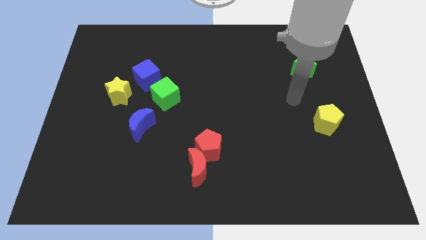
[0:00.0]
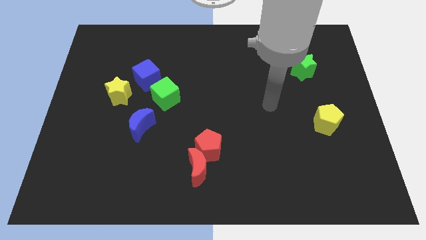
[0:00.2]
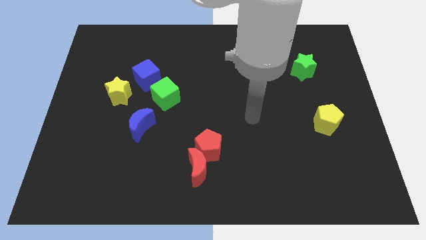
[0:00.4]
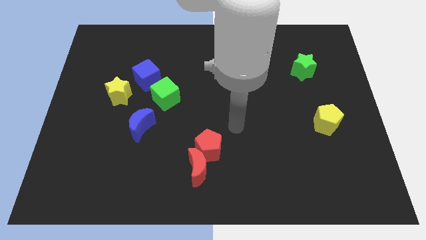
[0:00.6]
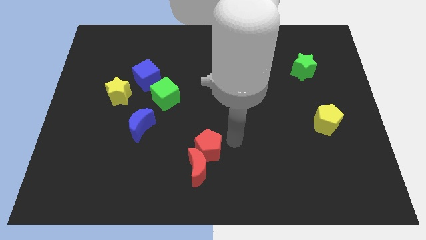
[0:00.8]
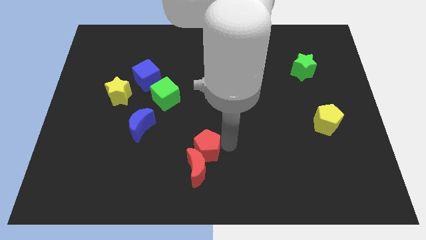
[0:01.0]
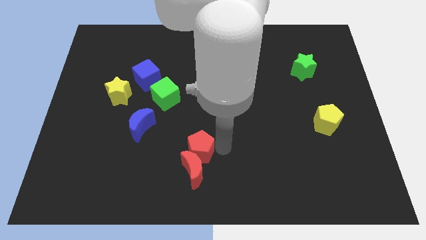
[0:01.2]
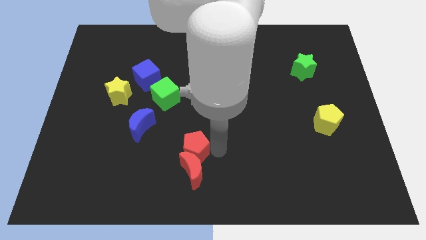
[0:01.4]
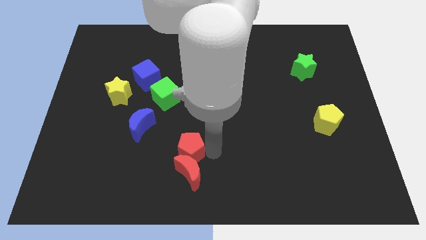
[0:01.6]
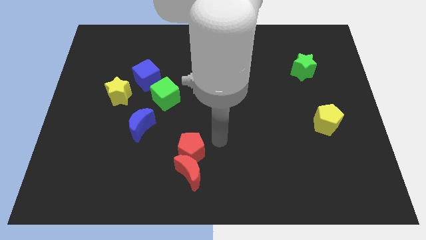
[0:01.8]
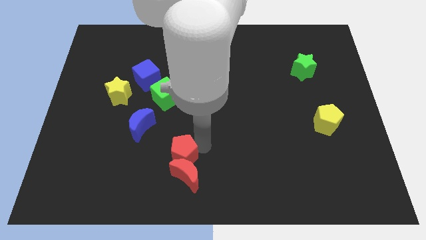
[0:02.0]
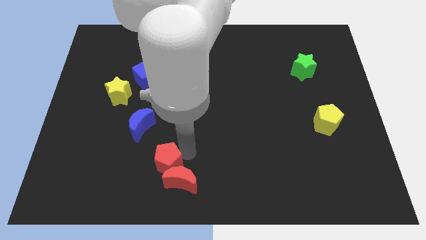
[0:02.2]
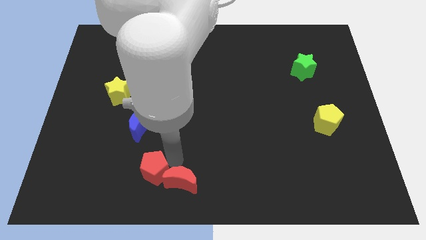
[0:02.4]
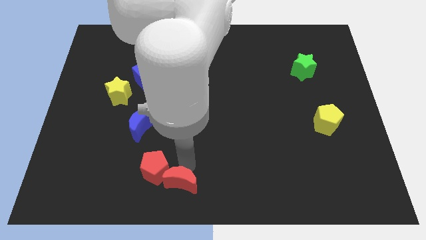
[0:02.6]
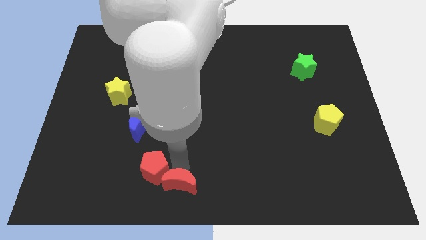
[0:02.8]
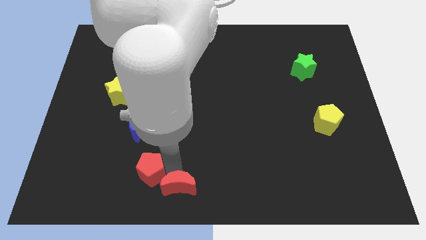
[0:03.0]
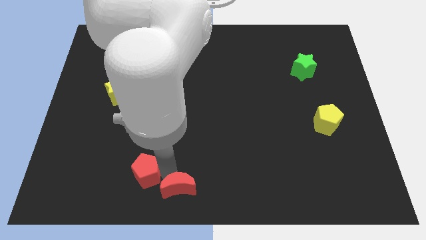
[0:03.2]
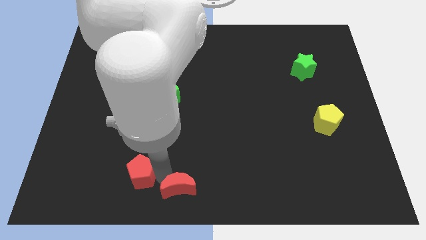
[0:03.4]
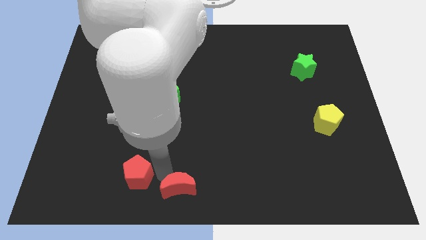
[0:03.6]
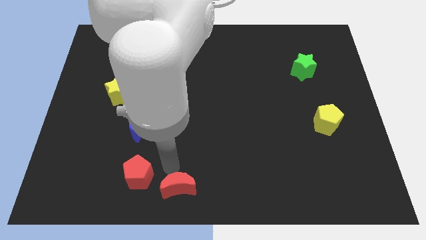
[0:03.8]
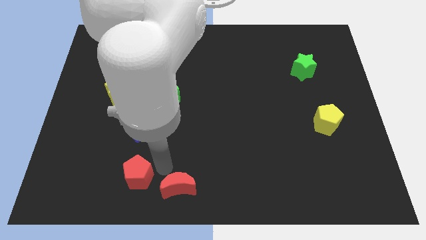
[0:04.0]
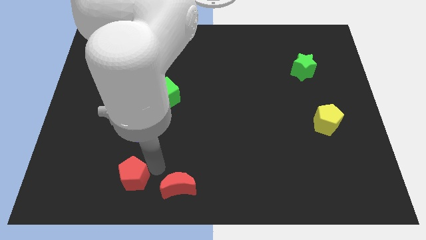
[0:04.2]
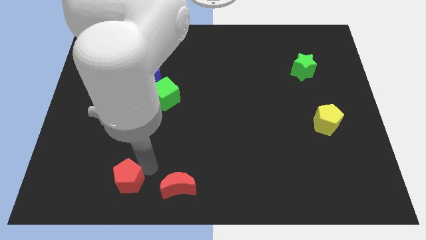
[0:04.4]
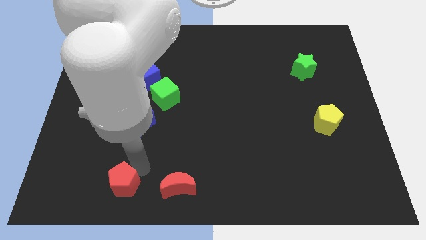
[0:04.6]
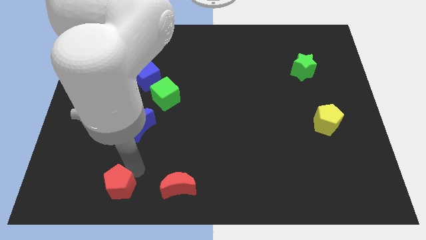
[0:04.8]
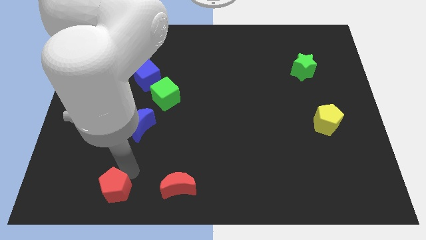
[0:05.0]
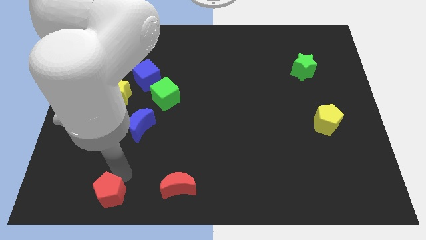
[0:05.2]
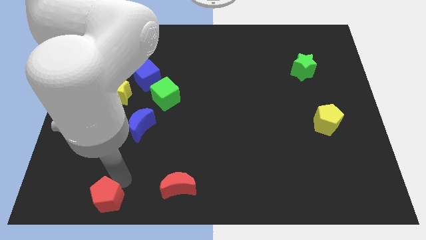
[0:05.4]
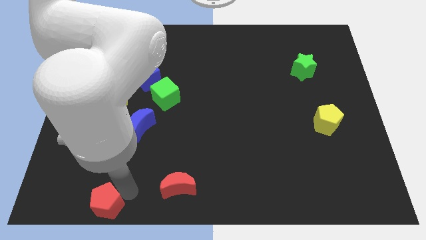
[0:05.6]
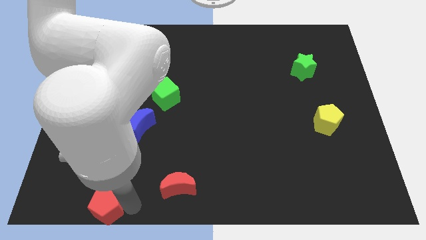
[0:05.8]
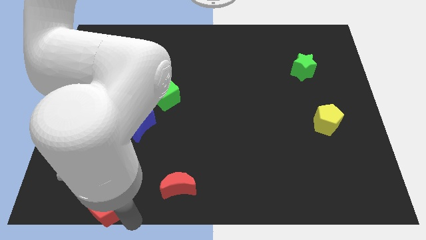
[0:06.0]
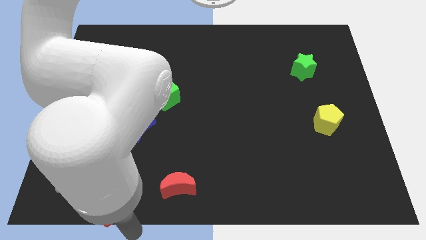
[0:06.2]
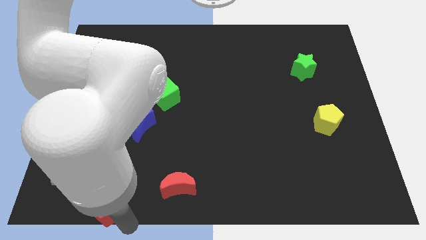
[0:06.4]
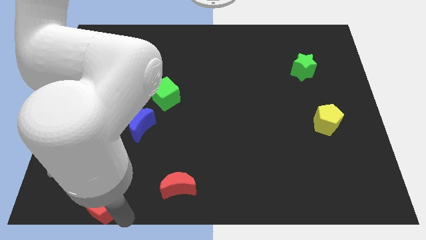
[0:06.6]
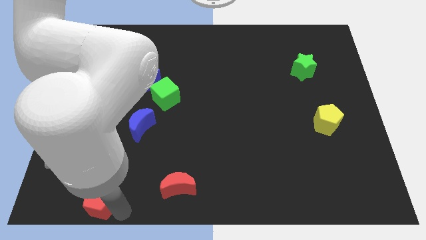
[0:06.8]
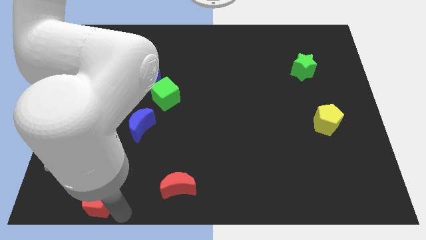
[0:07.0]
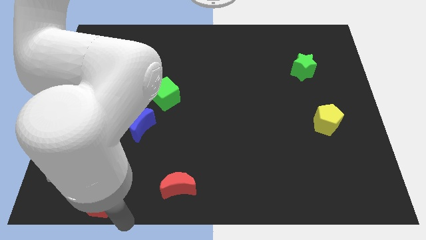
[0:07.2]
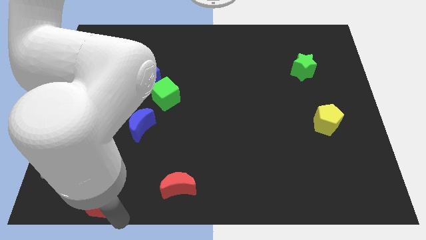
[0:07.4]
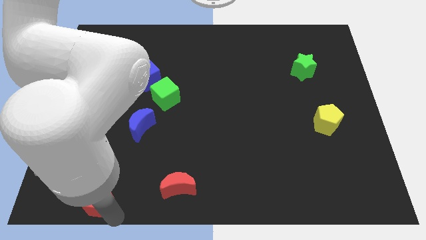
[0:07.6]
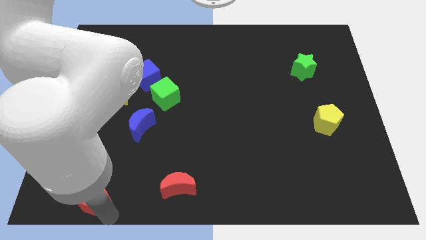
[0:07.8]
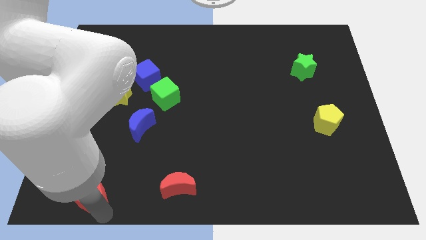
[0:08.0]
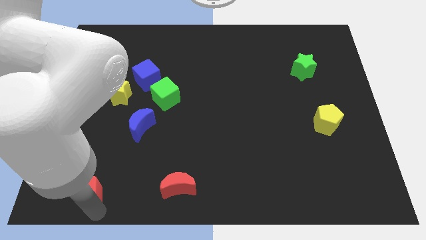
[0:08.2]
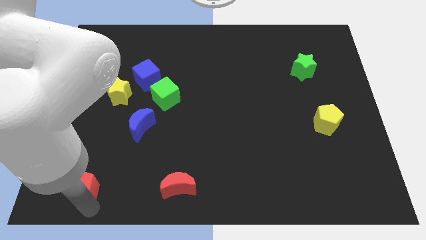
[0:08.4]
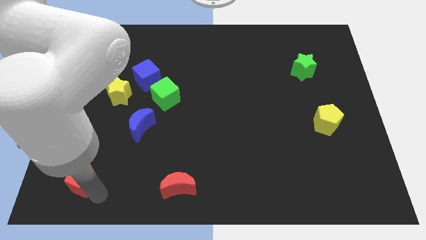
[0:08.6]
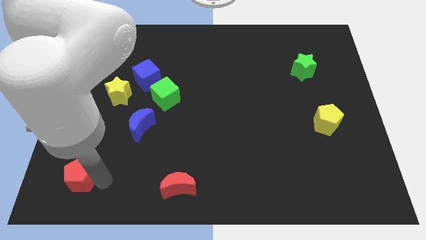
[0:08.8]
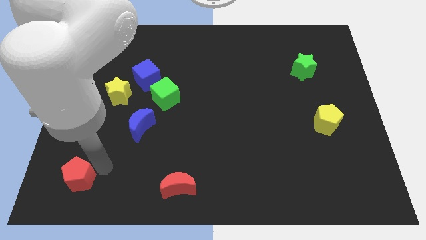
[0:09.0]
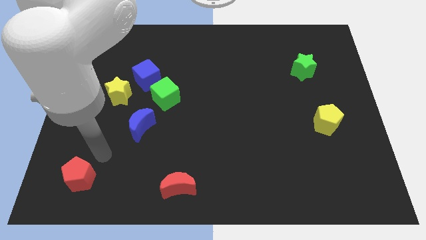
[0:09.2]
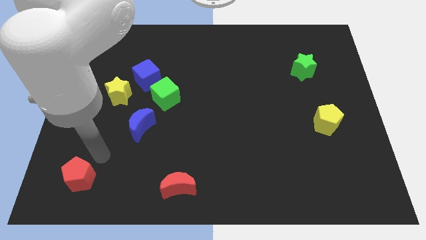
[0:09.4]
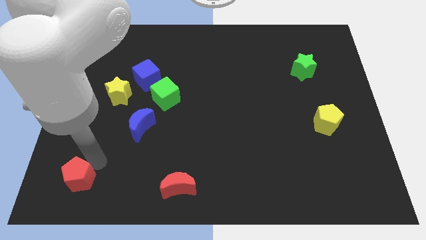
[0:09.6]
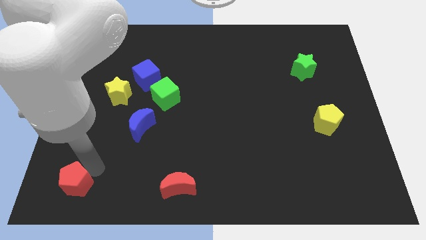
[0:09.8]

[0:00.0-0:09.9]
slide the red pentagon to the bottom left

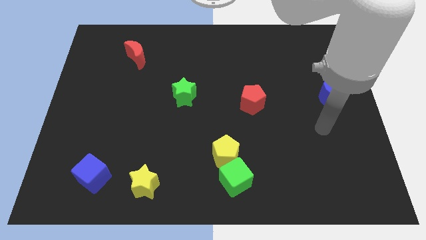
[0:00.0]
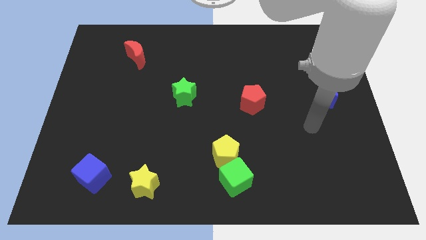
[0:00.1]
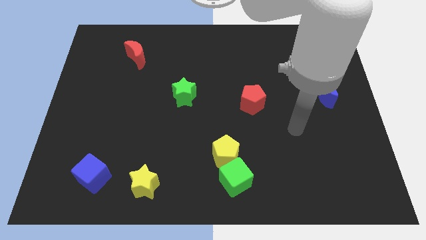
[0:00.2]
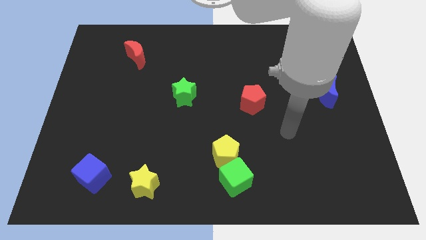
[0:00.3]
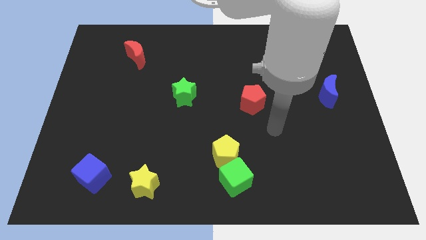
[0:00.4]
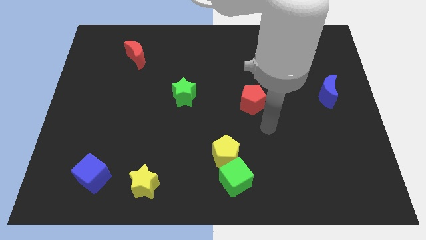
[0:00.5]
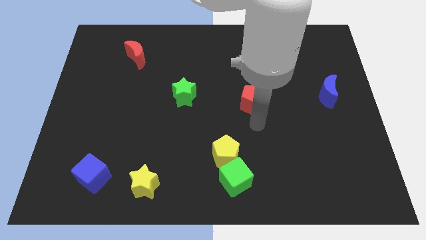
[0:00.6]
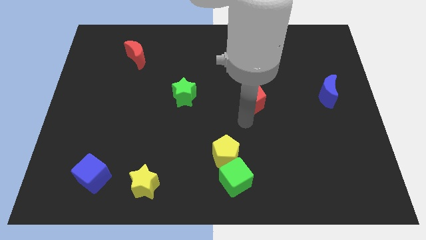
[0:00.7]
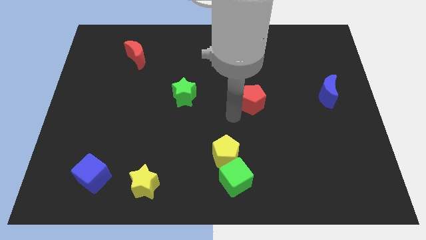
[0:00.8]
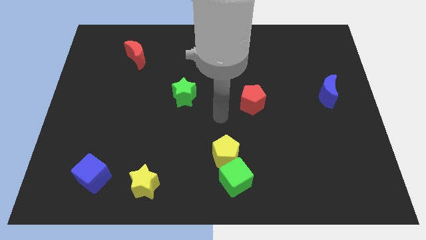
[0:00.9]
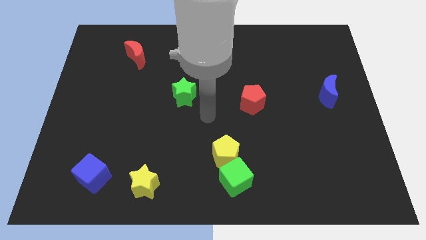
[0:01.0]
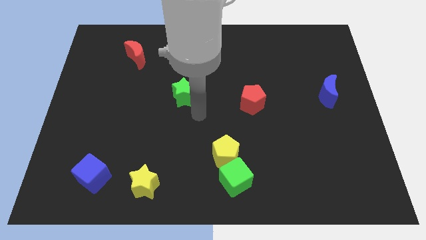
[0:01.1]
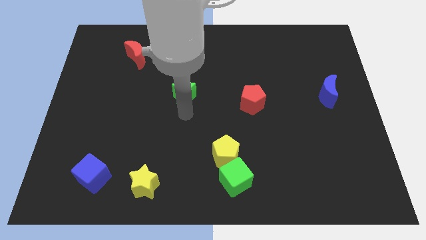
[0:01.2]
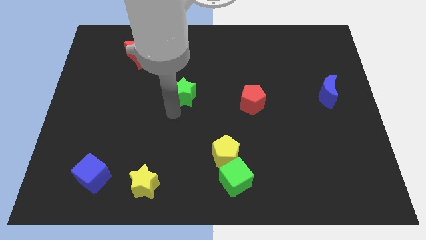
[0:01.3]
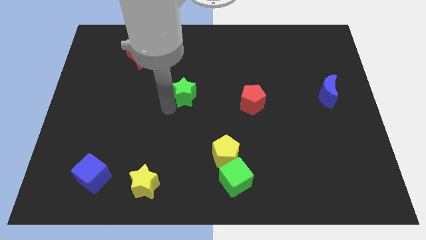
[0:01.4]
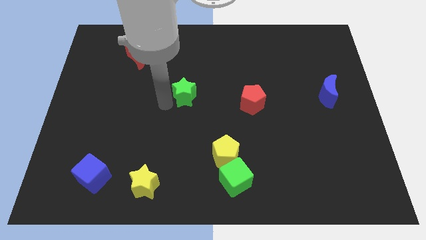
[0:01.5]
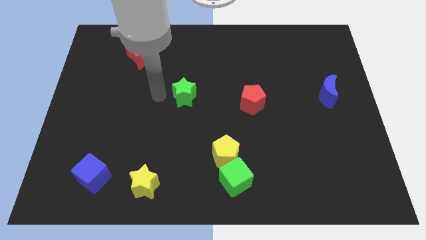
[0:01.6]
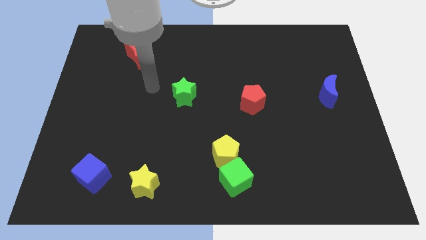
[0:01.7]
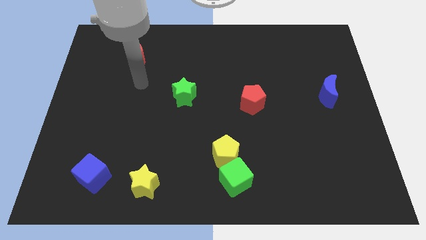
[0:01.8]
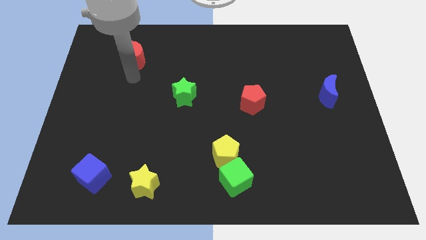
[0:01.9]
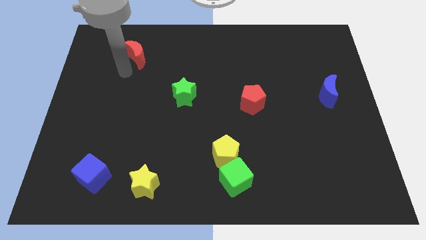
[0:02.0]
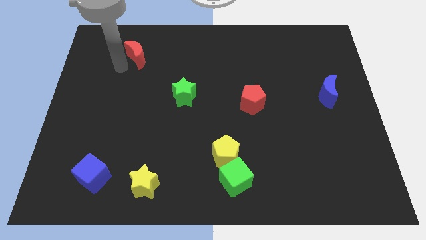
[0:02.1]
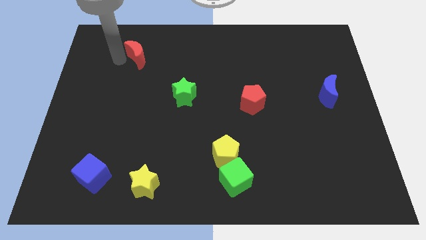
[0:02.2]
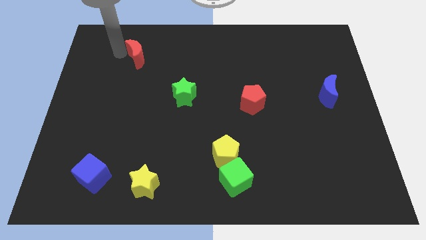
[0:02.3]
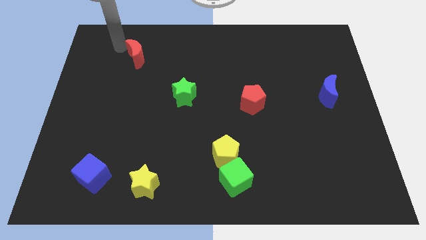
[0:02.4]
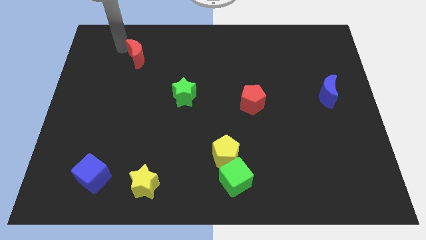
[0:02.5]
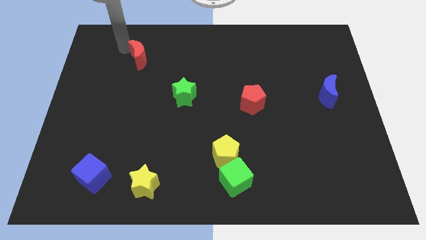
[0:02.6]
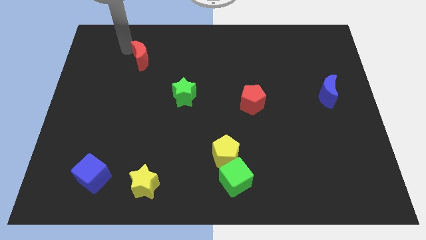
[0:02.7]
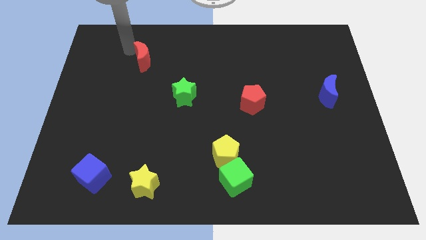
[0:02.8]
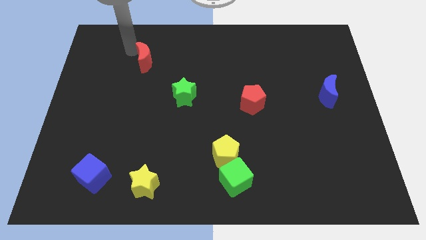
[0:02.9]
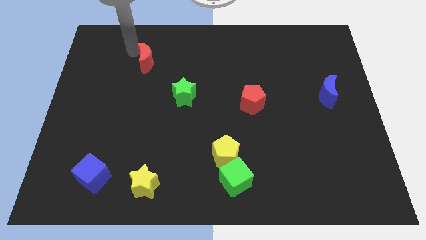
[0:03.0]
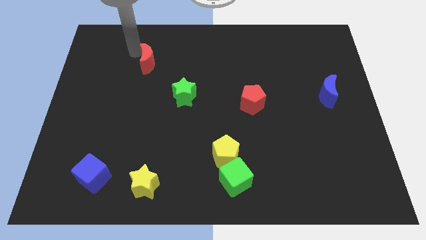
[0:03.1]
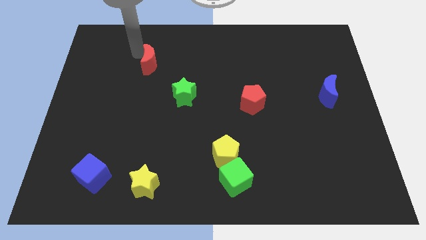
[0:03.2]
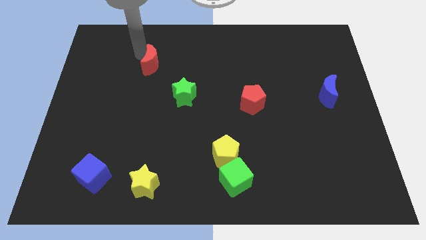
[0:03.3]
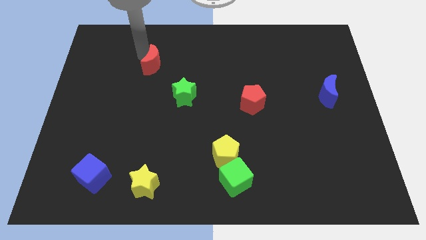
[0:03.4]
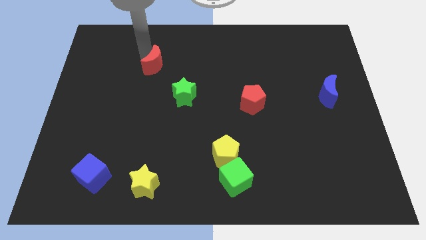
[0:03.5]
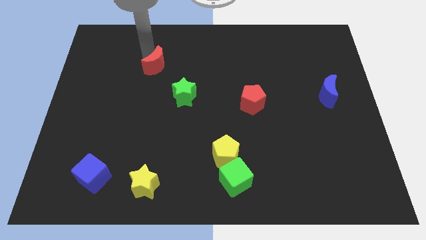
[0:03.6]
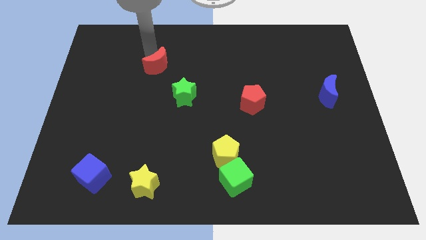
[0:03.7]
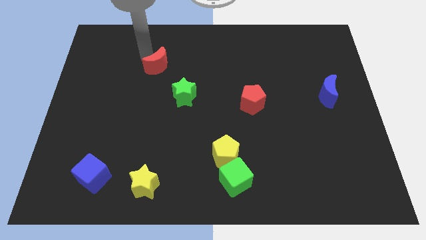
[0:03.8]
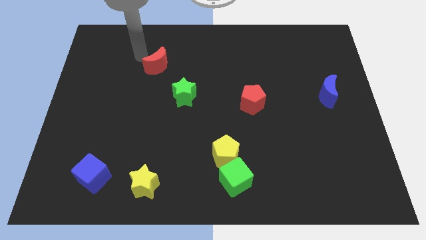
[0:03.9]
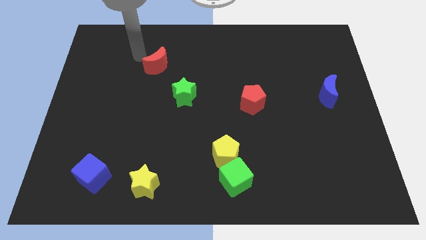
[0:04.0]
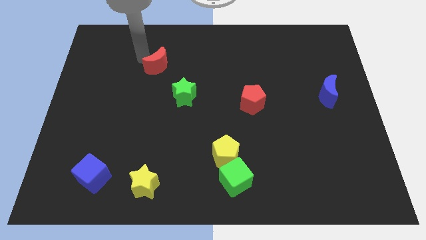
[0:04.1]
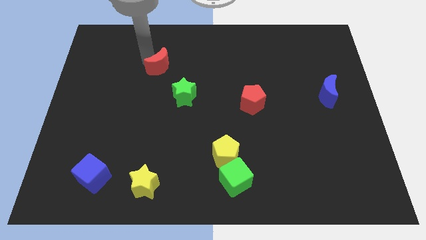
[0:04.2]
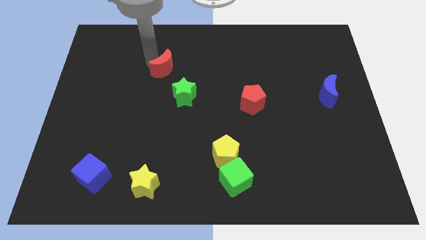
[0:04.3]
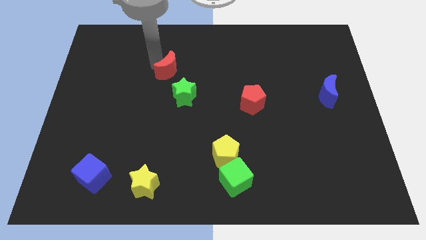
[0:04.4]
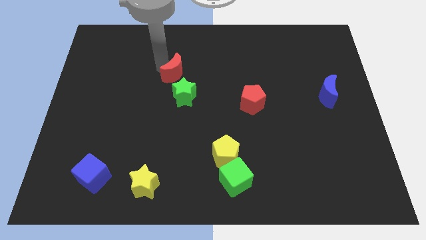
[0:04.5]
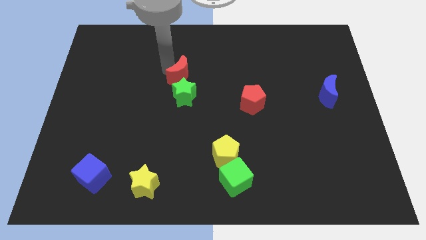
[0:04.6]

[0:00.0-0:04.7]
slide the red moon to the middle of the board
